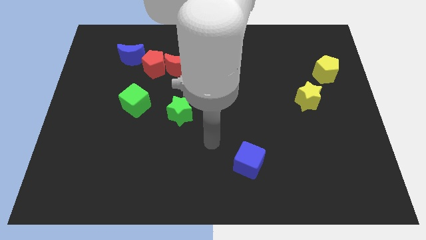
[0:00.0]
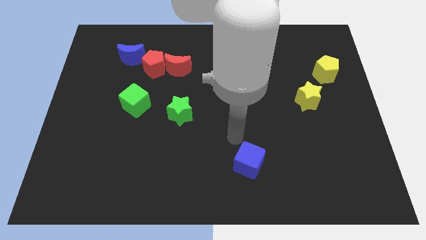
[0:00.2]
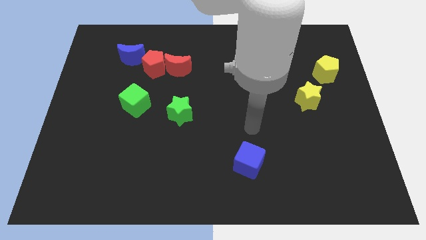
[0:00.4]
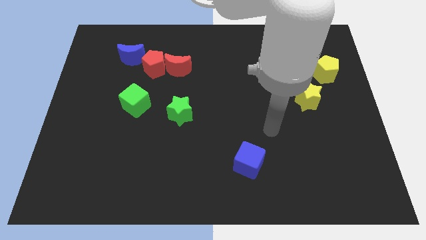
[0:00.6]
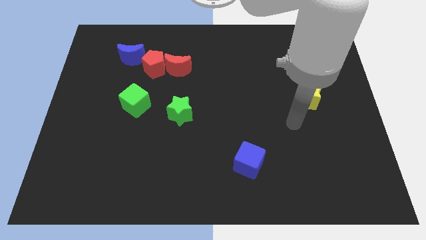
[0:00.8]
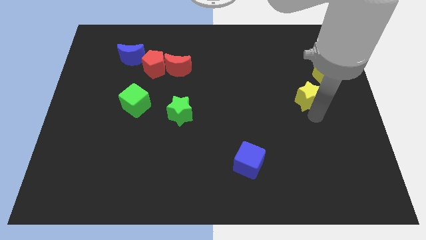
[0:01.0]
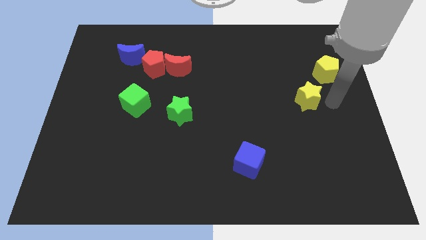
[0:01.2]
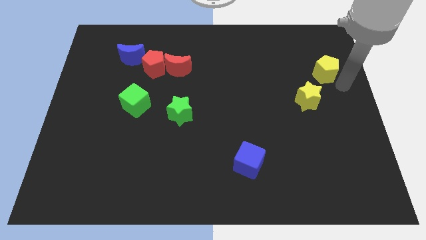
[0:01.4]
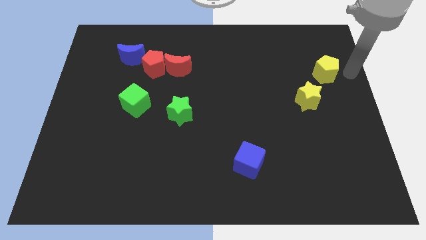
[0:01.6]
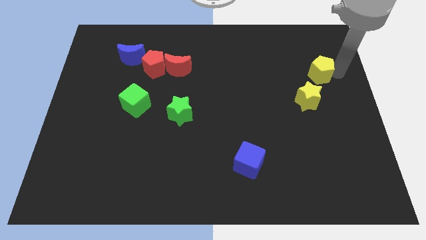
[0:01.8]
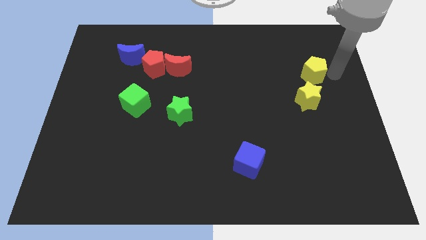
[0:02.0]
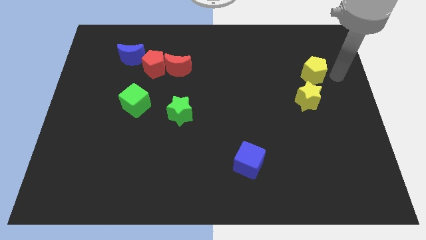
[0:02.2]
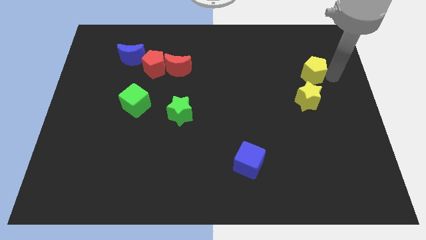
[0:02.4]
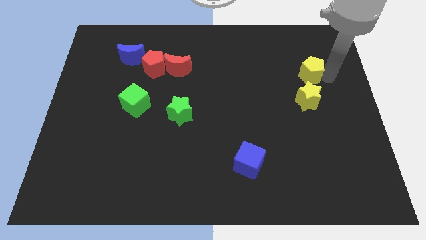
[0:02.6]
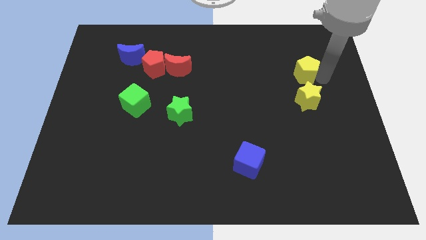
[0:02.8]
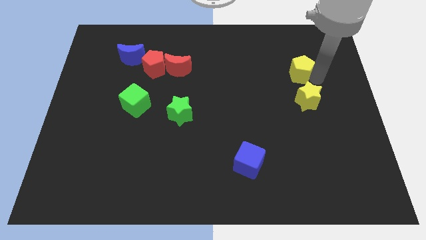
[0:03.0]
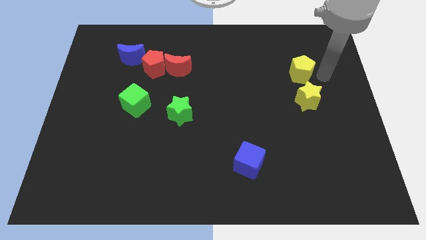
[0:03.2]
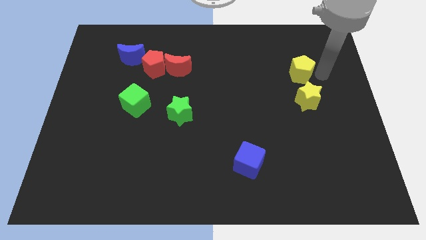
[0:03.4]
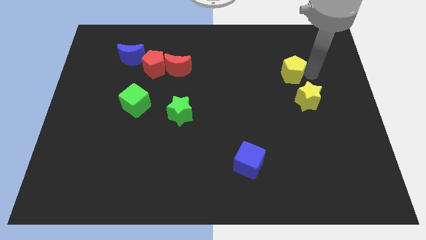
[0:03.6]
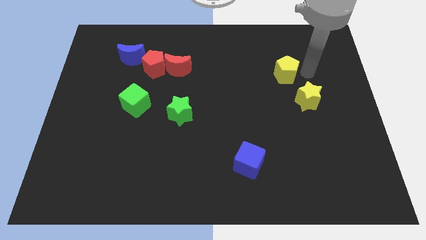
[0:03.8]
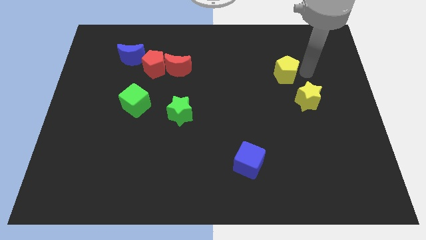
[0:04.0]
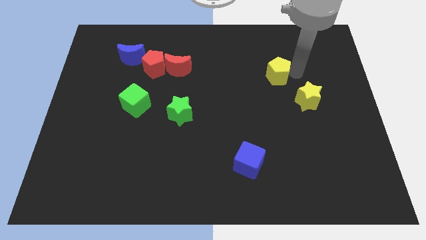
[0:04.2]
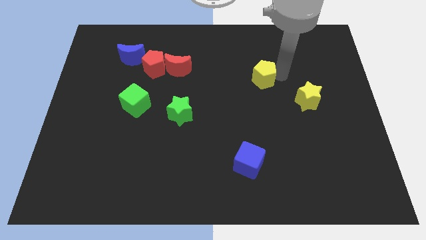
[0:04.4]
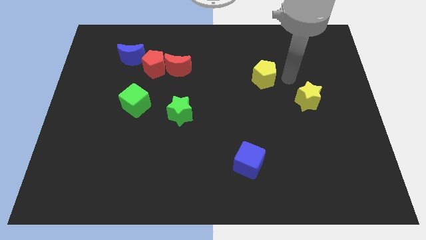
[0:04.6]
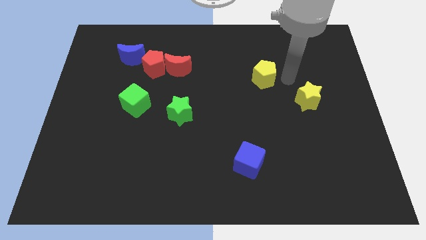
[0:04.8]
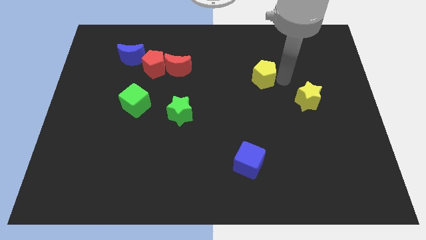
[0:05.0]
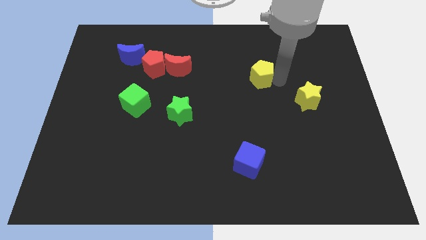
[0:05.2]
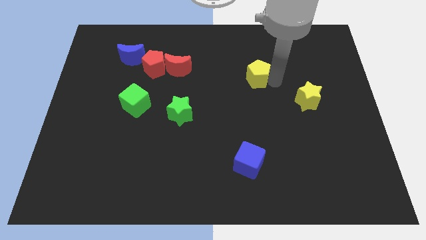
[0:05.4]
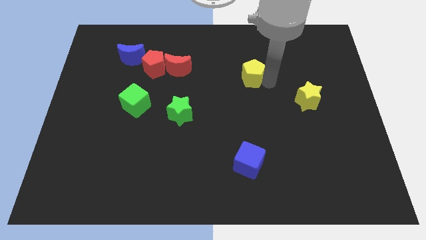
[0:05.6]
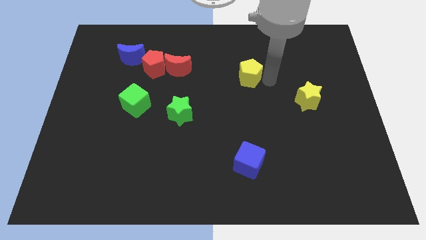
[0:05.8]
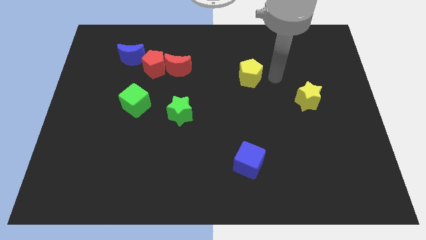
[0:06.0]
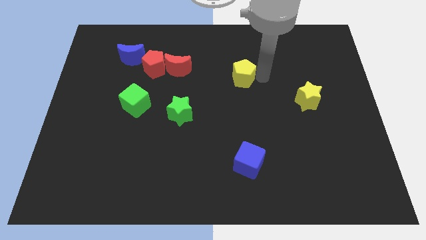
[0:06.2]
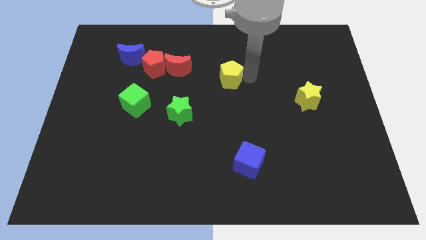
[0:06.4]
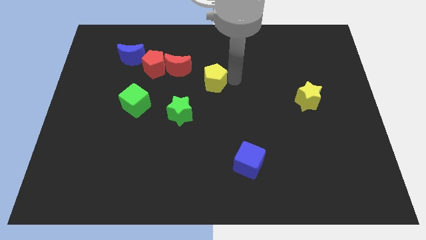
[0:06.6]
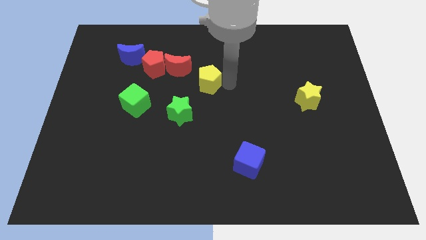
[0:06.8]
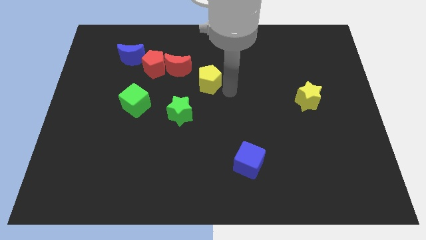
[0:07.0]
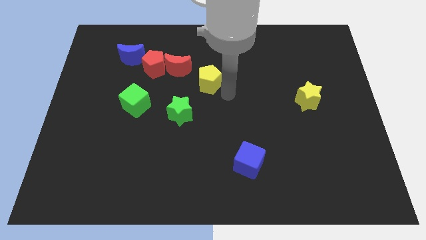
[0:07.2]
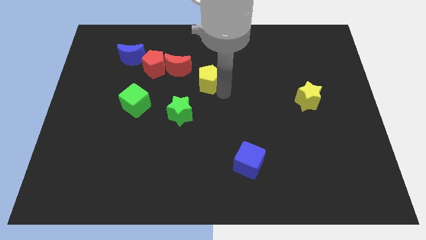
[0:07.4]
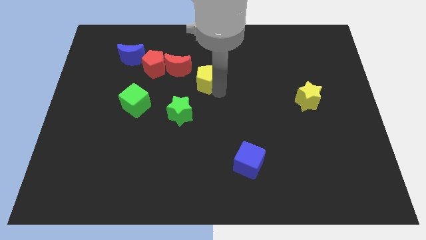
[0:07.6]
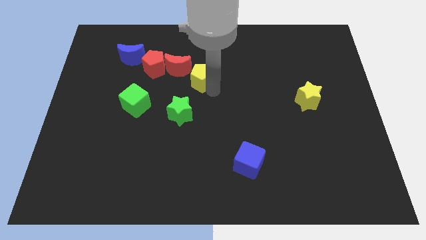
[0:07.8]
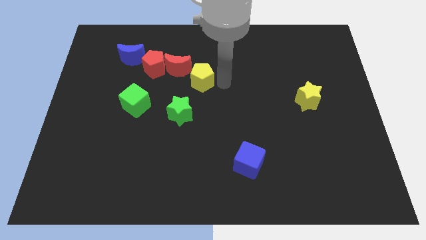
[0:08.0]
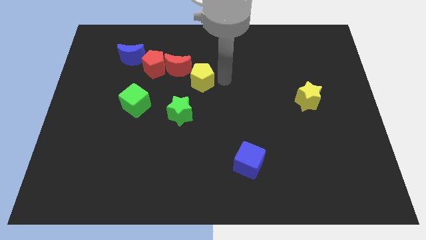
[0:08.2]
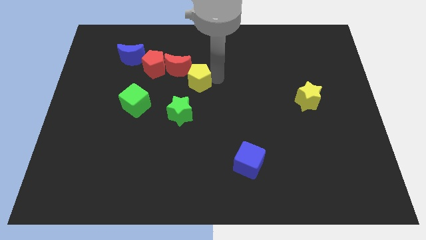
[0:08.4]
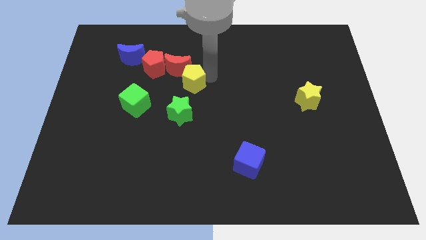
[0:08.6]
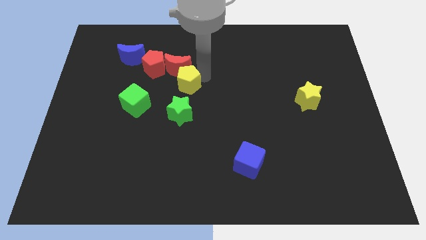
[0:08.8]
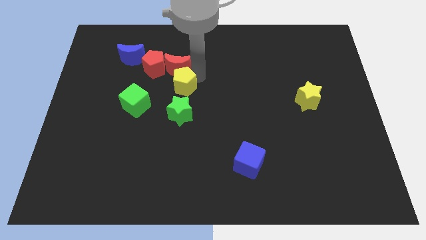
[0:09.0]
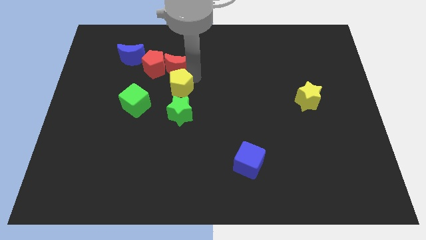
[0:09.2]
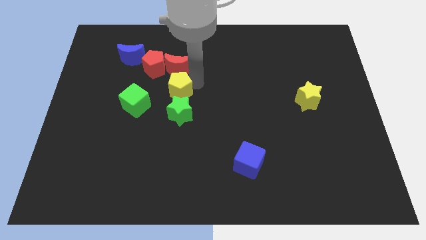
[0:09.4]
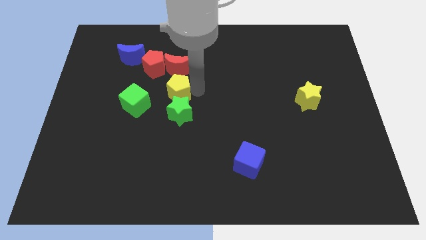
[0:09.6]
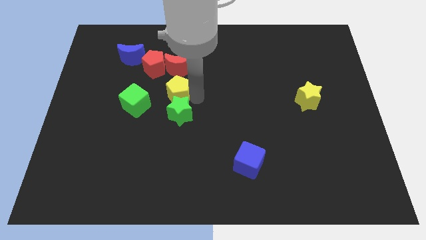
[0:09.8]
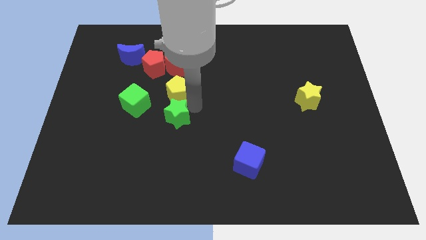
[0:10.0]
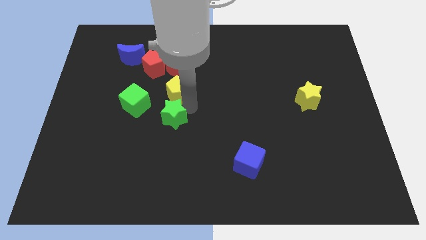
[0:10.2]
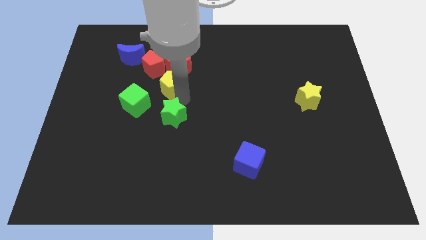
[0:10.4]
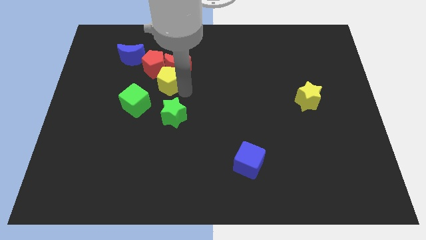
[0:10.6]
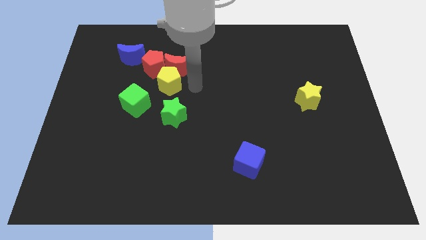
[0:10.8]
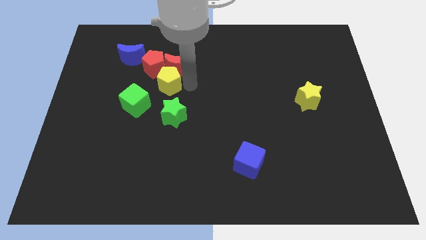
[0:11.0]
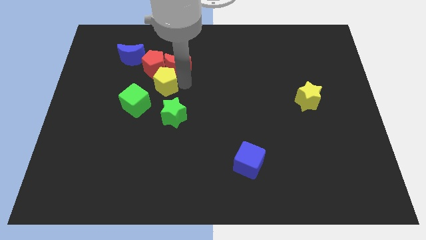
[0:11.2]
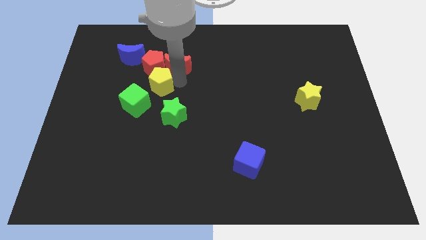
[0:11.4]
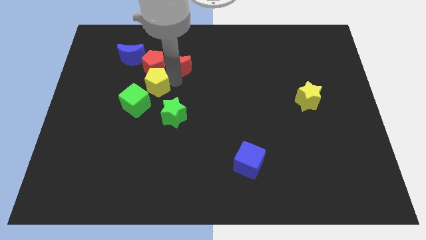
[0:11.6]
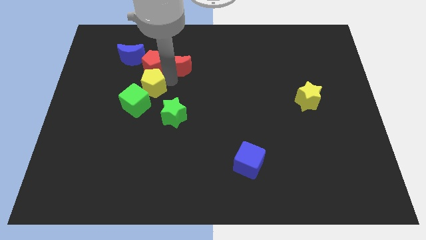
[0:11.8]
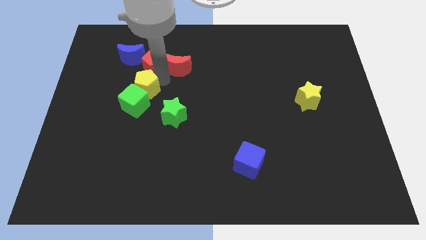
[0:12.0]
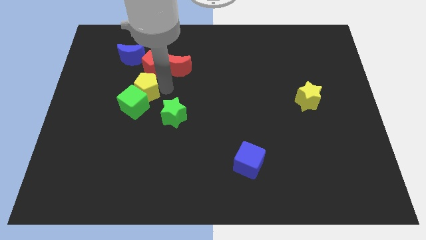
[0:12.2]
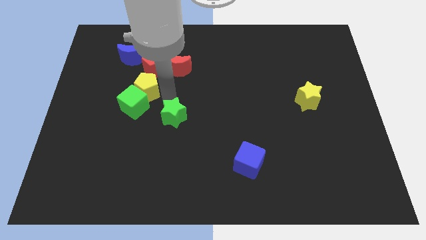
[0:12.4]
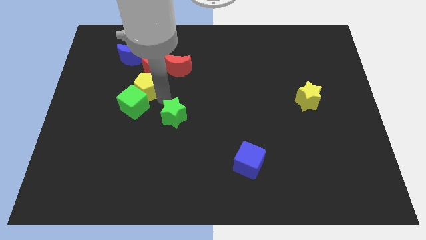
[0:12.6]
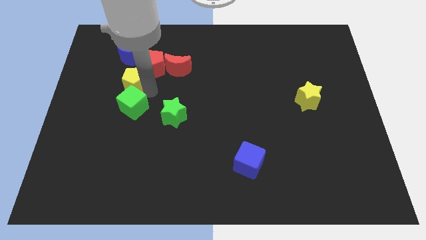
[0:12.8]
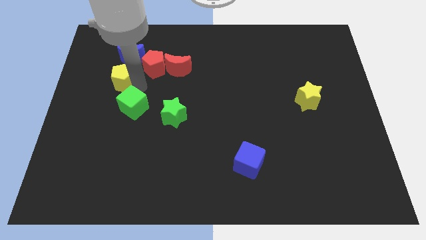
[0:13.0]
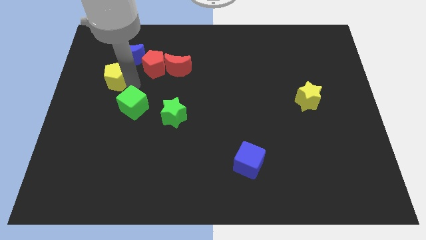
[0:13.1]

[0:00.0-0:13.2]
move the yellow pentagon diagonally down and to the left of the blue moon

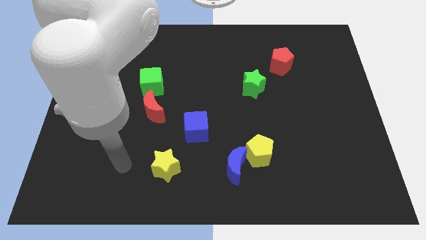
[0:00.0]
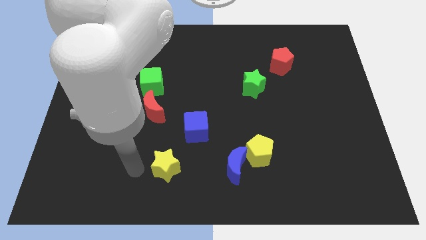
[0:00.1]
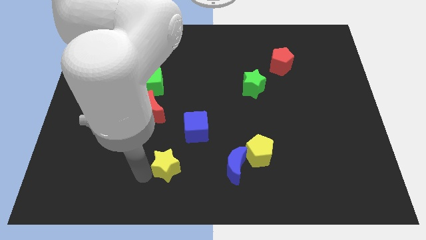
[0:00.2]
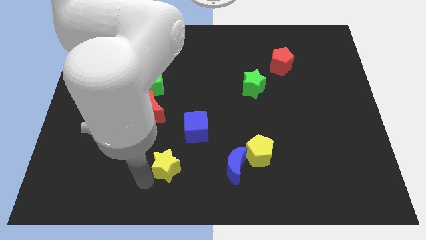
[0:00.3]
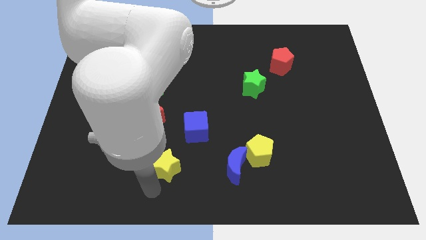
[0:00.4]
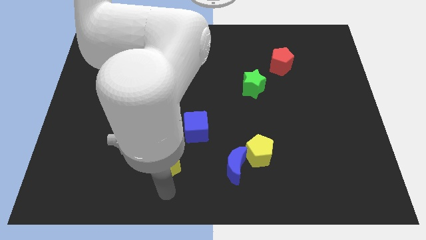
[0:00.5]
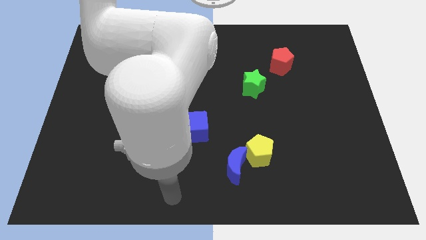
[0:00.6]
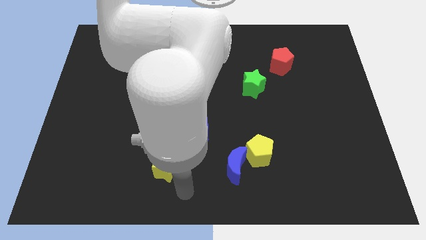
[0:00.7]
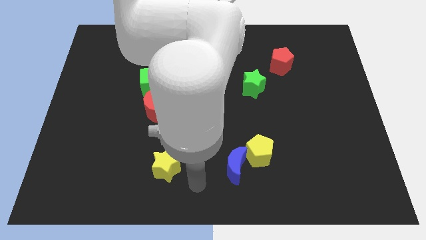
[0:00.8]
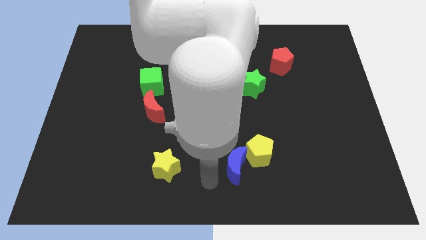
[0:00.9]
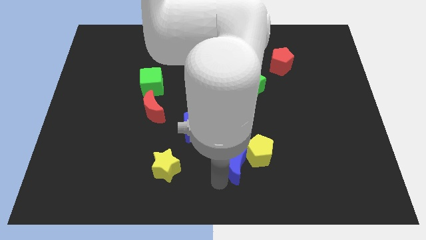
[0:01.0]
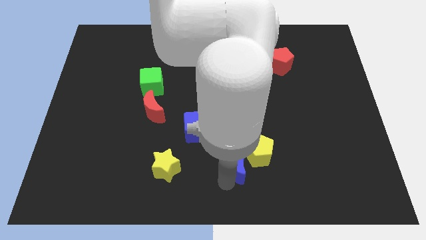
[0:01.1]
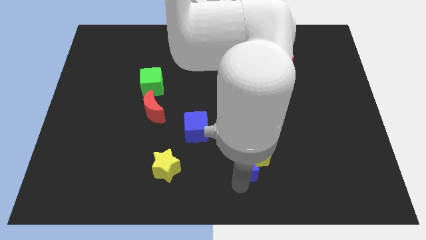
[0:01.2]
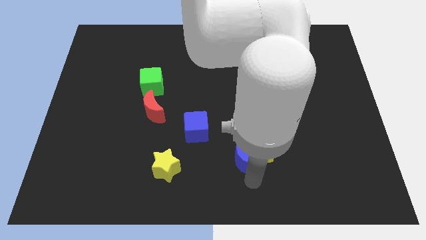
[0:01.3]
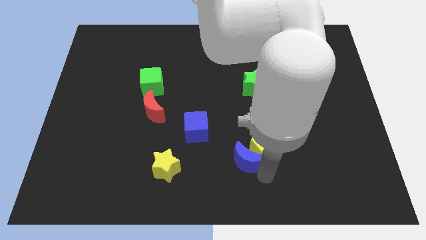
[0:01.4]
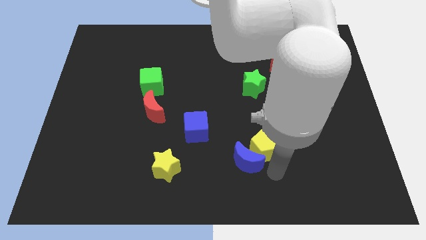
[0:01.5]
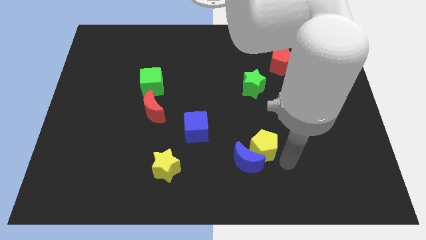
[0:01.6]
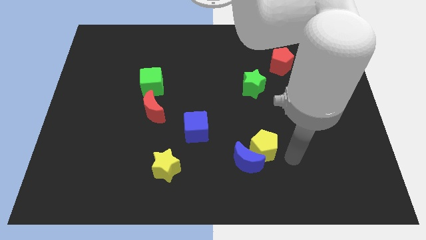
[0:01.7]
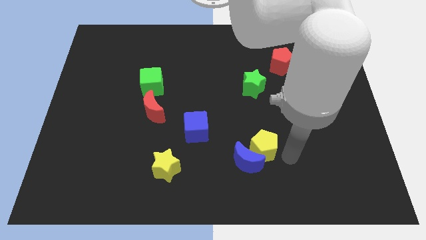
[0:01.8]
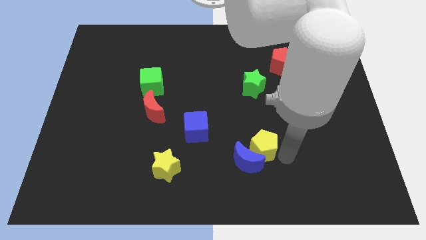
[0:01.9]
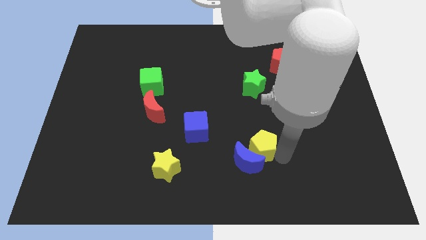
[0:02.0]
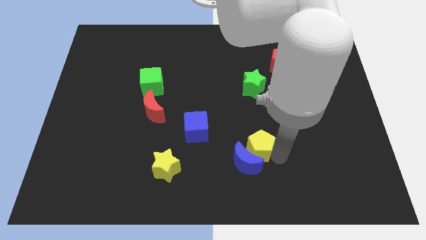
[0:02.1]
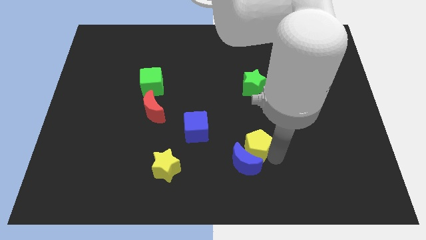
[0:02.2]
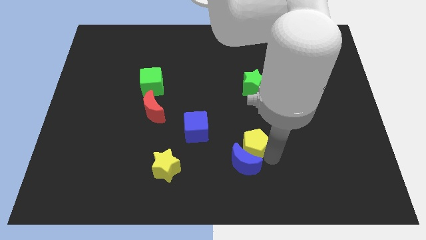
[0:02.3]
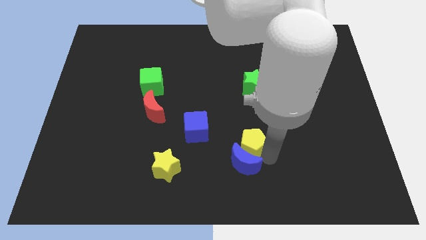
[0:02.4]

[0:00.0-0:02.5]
push the yellow pentagon to the top left side of the blue moon
